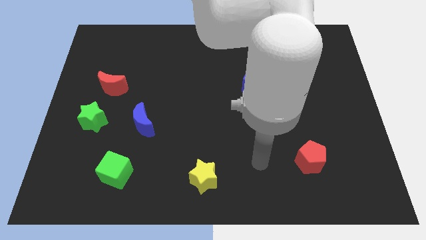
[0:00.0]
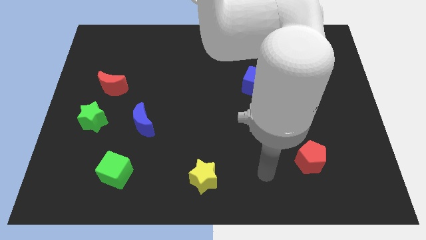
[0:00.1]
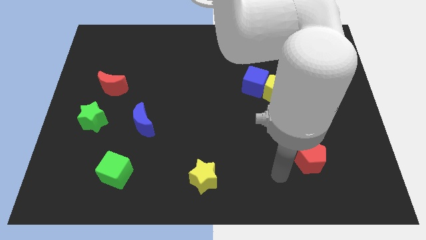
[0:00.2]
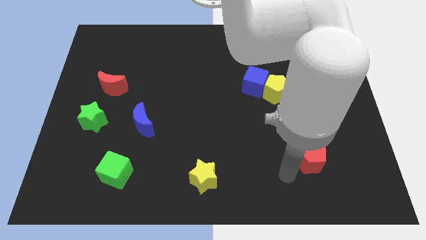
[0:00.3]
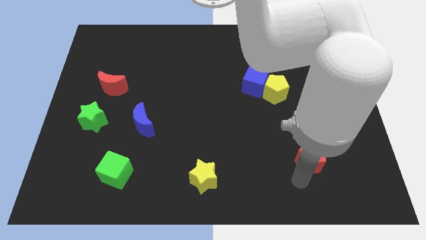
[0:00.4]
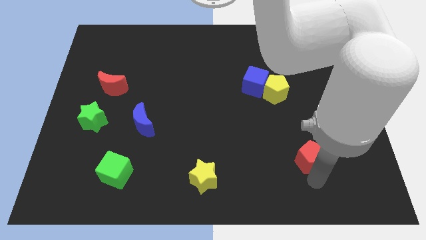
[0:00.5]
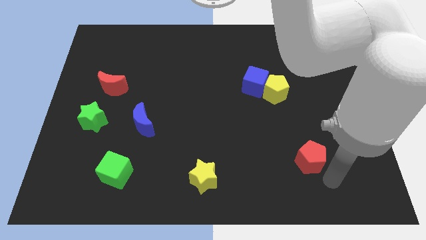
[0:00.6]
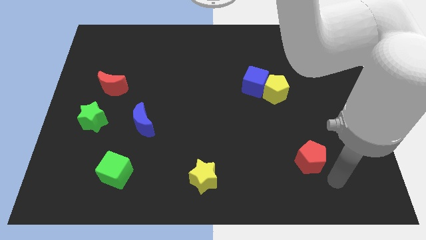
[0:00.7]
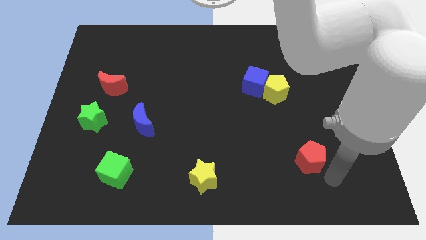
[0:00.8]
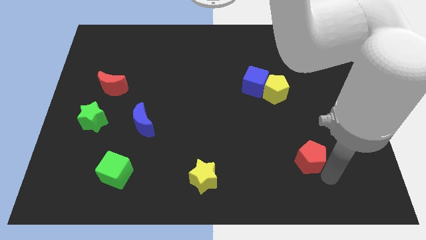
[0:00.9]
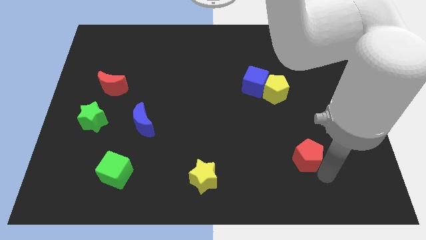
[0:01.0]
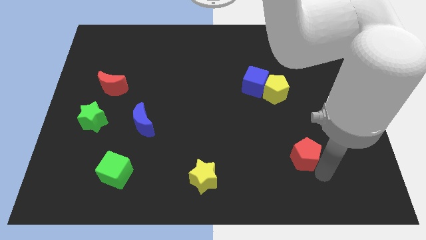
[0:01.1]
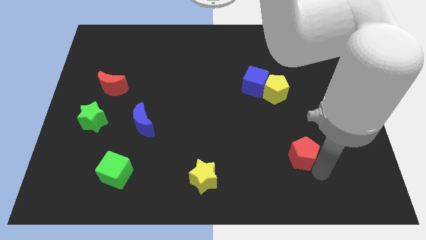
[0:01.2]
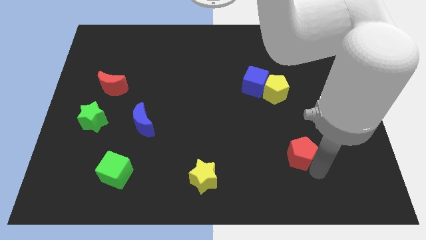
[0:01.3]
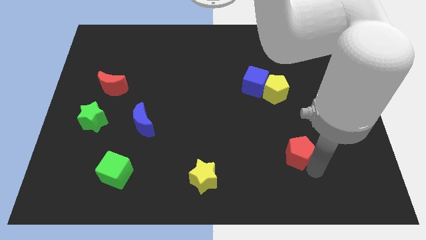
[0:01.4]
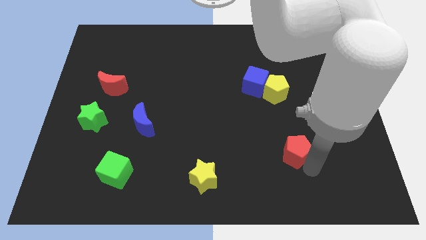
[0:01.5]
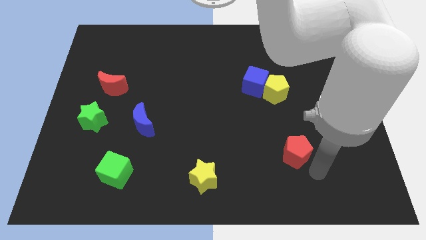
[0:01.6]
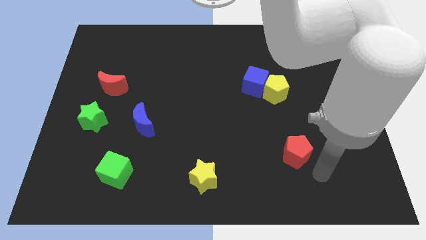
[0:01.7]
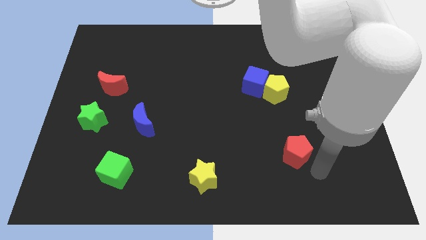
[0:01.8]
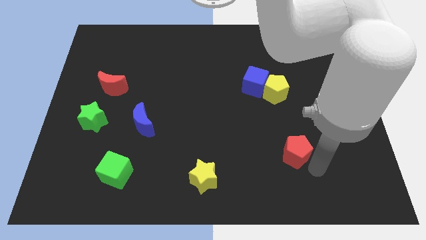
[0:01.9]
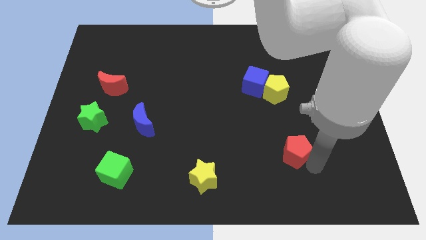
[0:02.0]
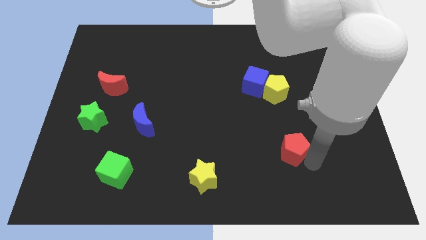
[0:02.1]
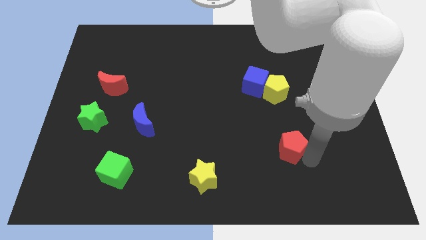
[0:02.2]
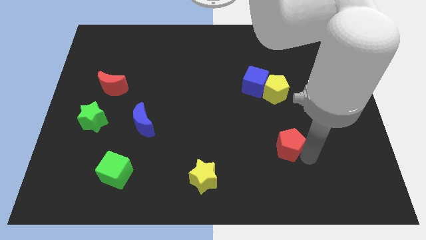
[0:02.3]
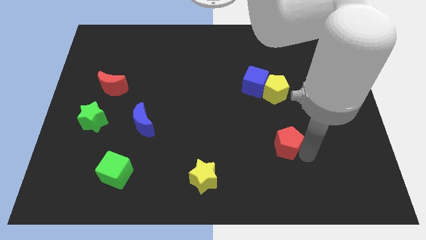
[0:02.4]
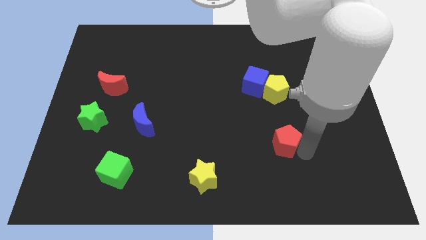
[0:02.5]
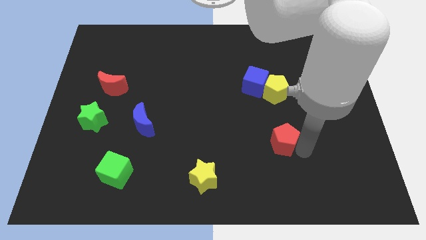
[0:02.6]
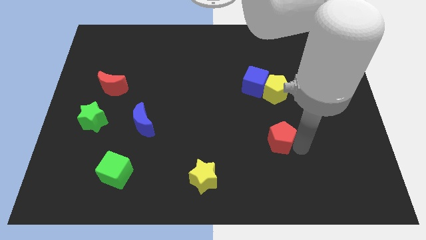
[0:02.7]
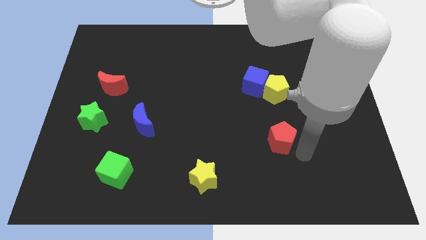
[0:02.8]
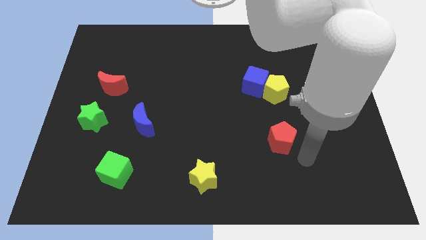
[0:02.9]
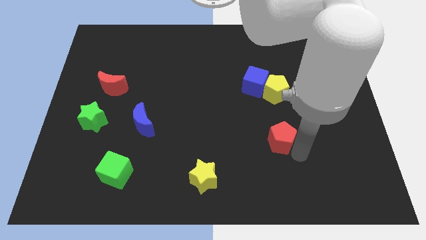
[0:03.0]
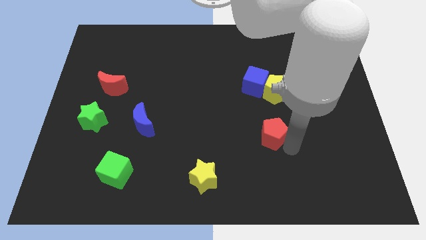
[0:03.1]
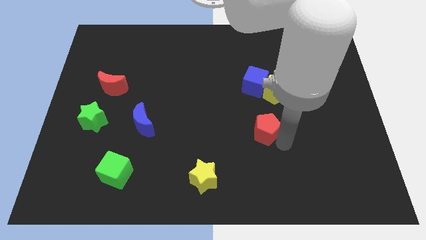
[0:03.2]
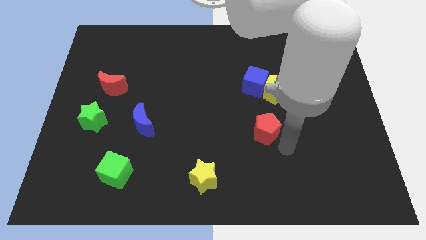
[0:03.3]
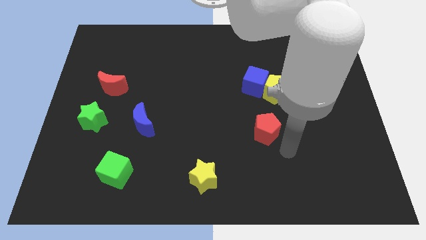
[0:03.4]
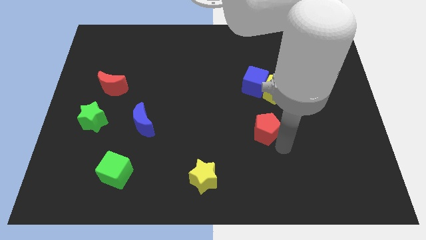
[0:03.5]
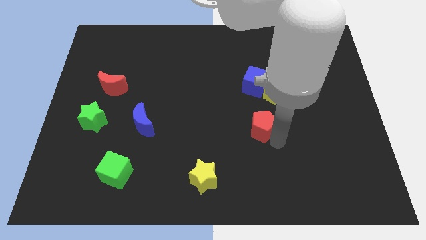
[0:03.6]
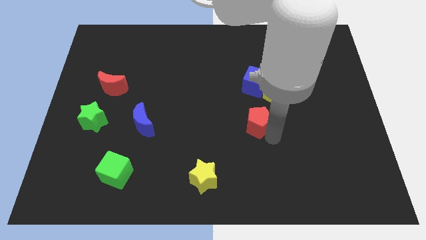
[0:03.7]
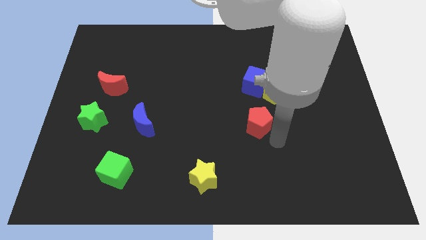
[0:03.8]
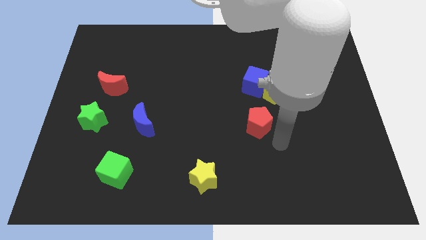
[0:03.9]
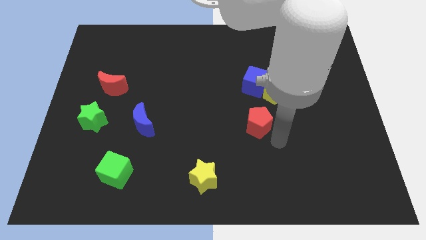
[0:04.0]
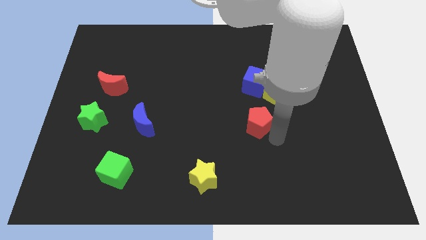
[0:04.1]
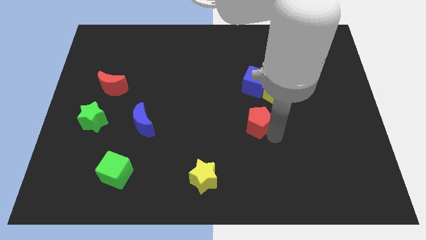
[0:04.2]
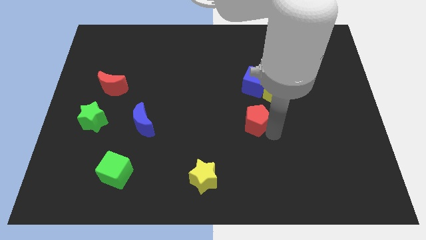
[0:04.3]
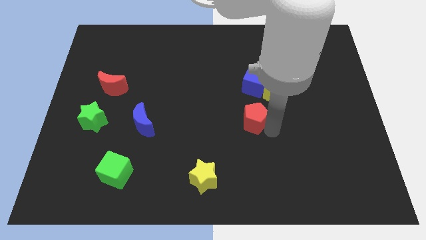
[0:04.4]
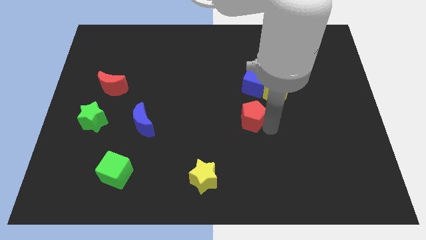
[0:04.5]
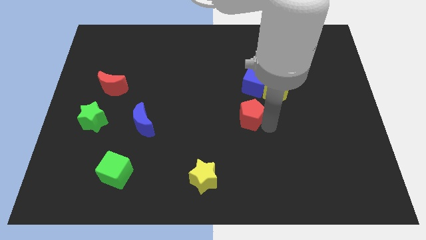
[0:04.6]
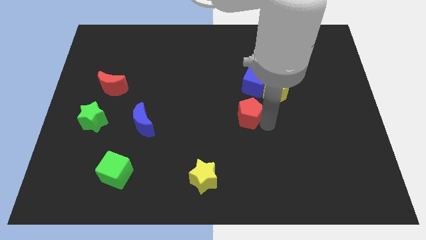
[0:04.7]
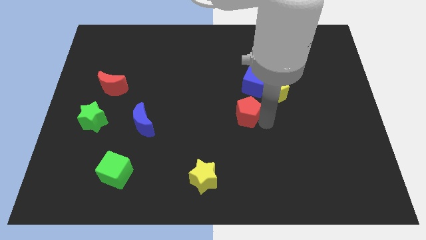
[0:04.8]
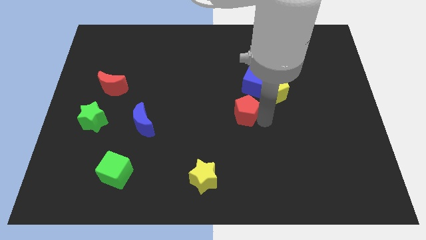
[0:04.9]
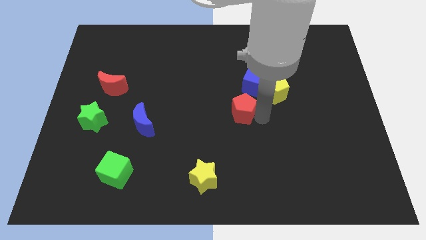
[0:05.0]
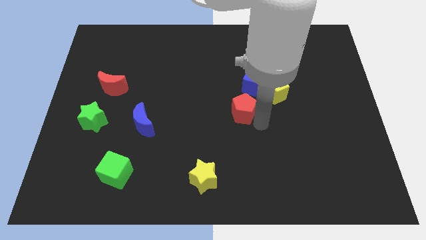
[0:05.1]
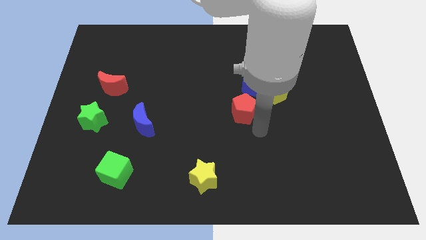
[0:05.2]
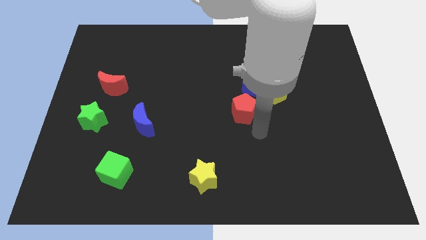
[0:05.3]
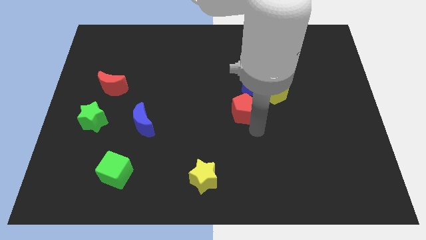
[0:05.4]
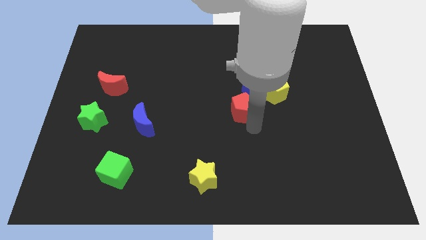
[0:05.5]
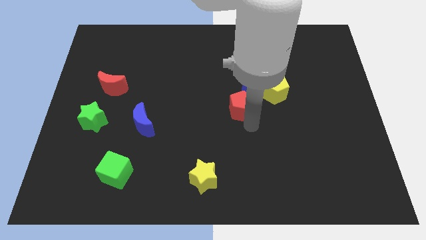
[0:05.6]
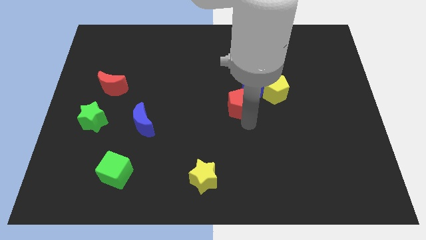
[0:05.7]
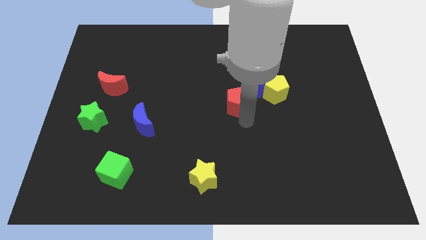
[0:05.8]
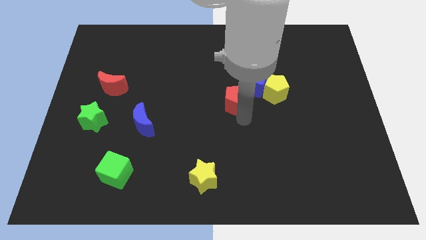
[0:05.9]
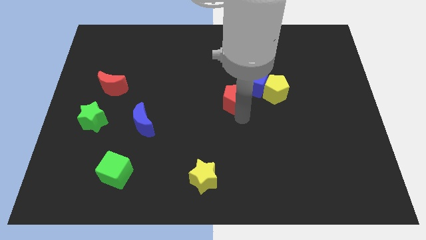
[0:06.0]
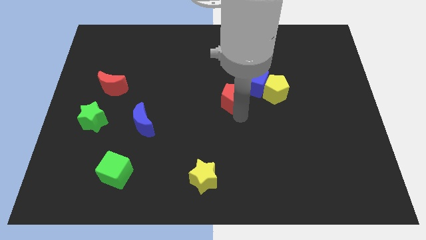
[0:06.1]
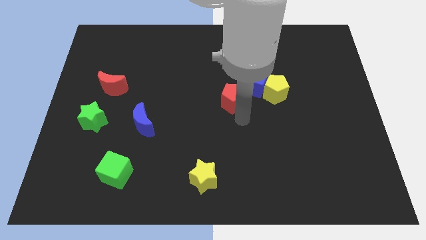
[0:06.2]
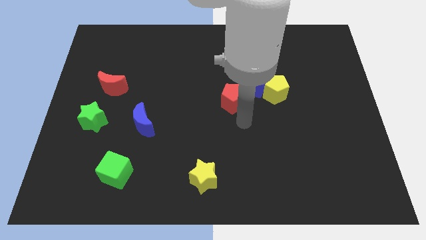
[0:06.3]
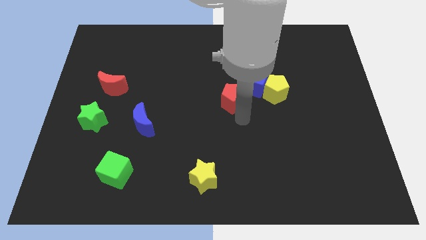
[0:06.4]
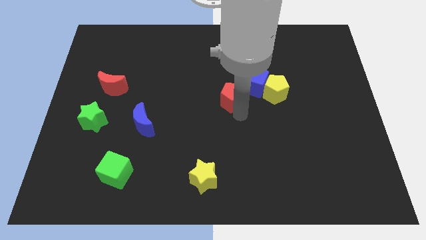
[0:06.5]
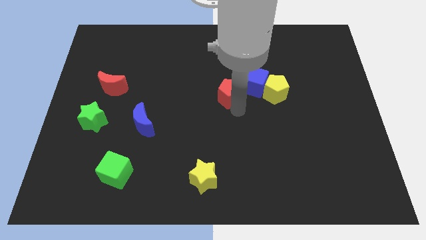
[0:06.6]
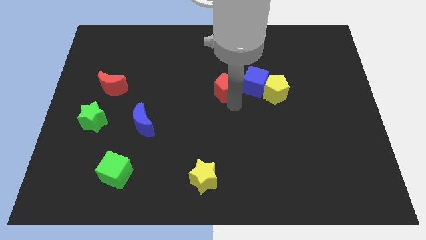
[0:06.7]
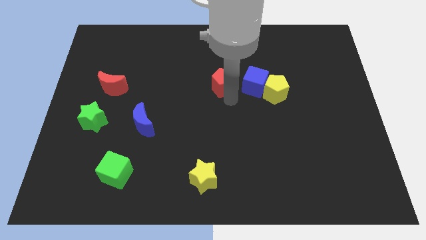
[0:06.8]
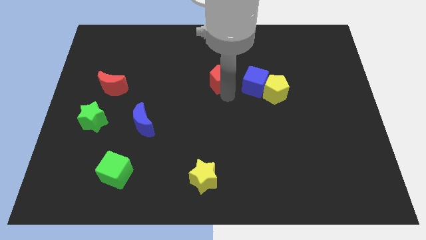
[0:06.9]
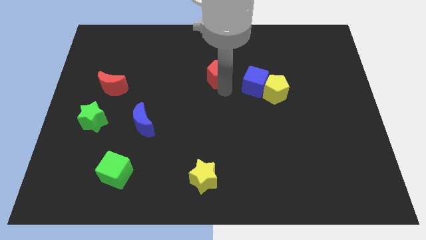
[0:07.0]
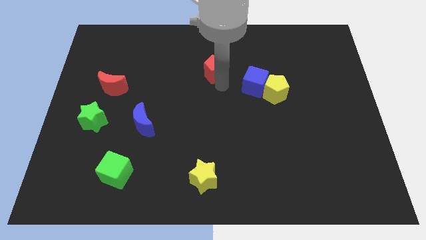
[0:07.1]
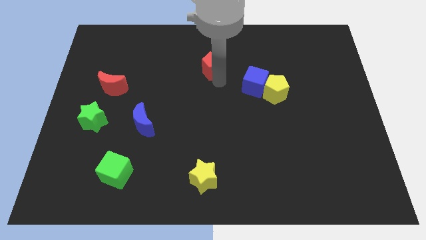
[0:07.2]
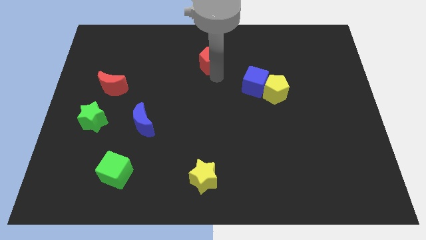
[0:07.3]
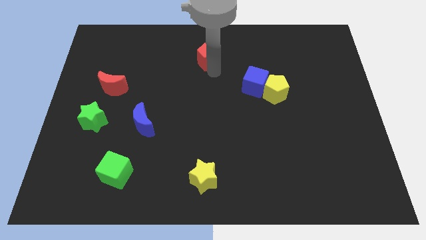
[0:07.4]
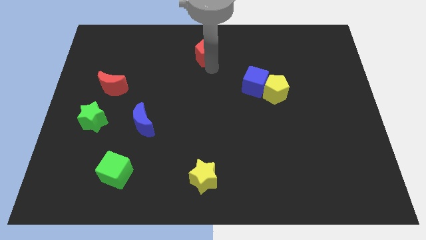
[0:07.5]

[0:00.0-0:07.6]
move the red pentagon to the top
